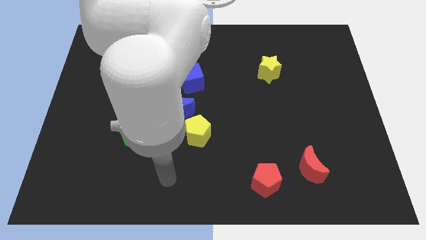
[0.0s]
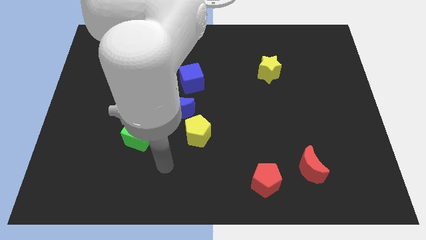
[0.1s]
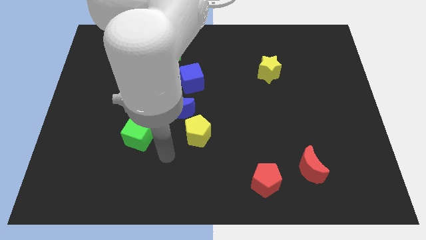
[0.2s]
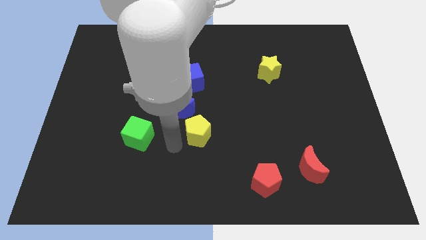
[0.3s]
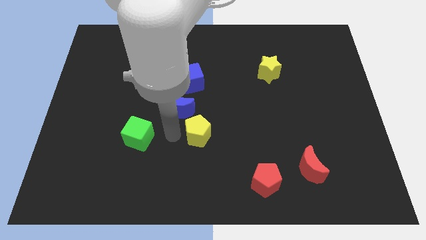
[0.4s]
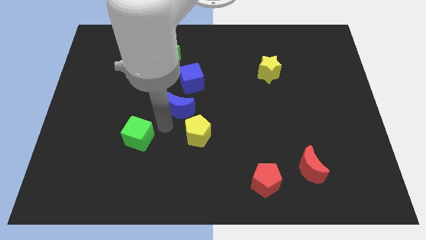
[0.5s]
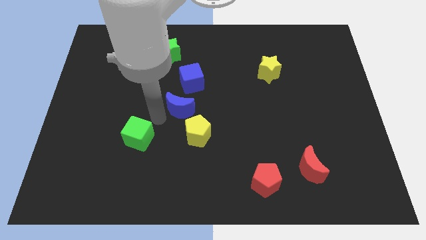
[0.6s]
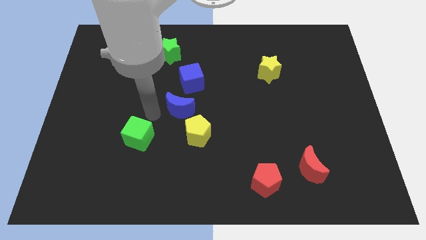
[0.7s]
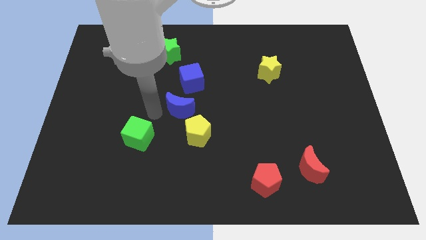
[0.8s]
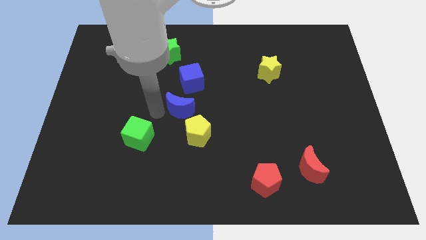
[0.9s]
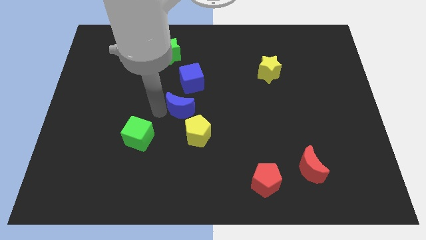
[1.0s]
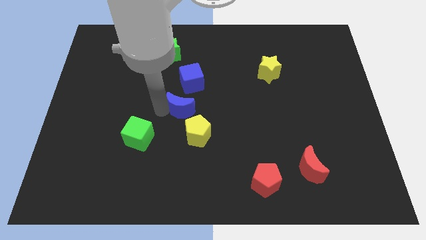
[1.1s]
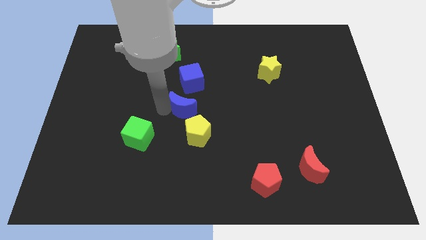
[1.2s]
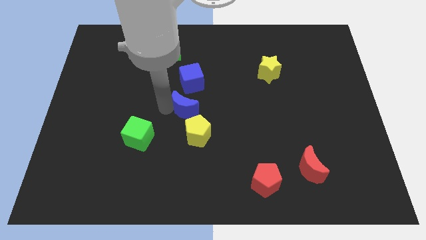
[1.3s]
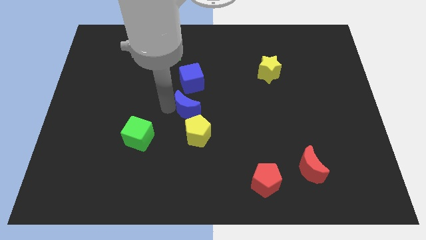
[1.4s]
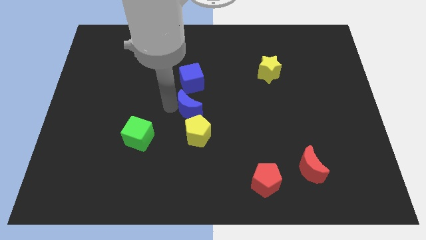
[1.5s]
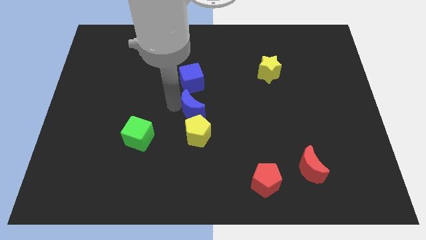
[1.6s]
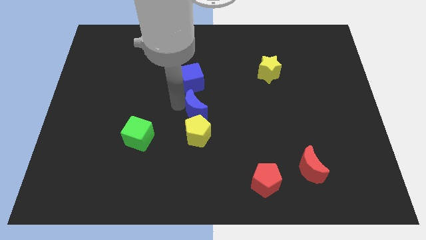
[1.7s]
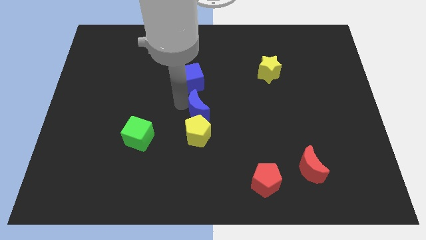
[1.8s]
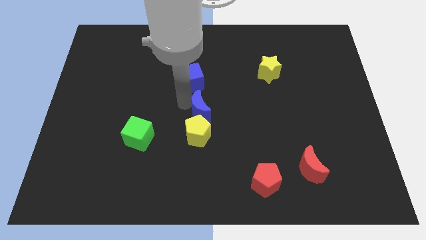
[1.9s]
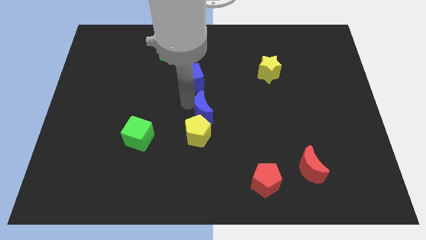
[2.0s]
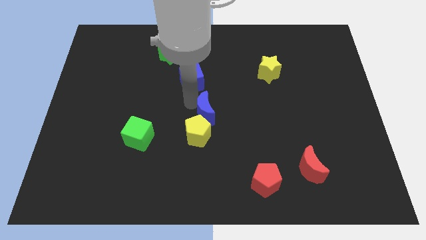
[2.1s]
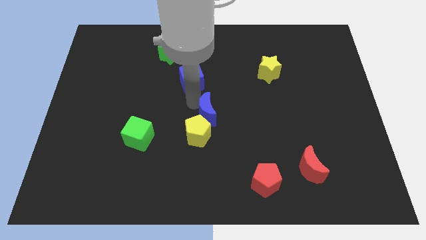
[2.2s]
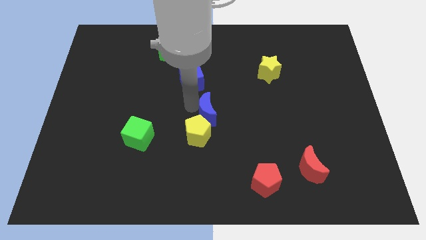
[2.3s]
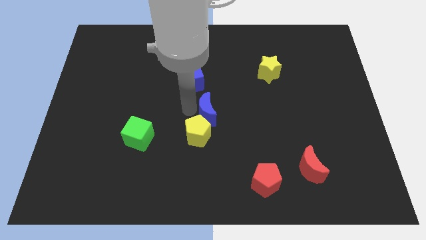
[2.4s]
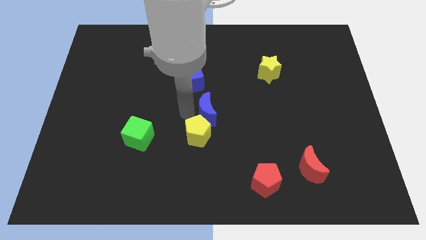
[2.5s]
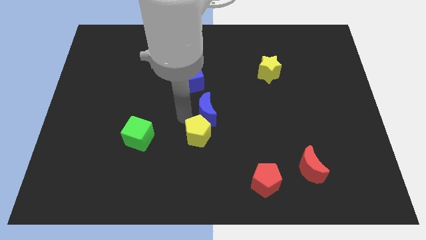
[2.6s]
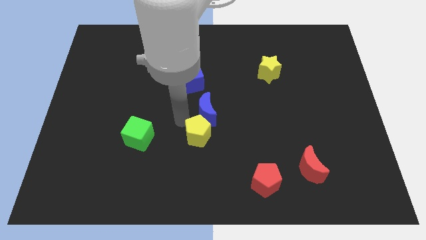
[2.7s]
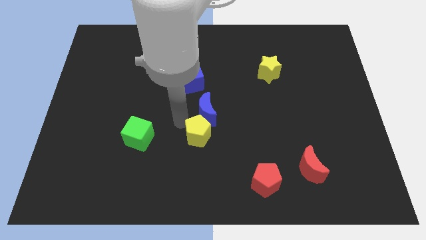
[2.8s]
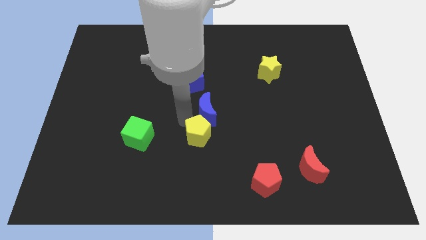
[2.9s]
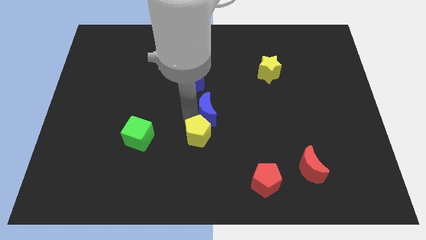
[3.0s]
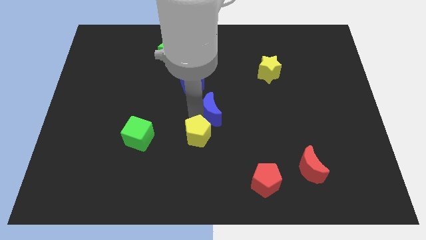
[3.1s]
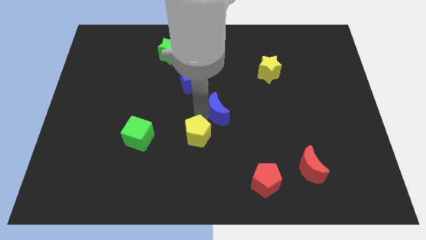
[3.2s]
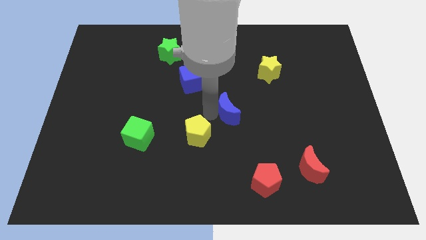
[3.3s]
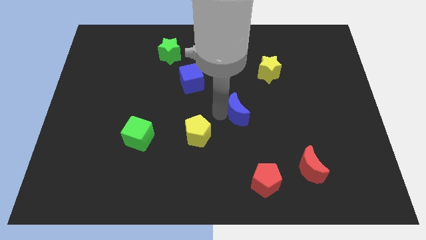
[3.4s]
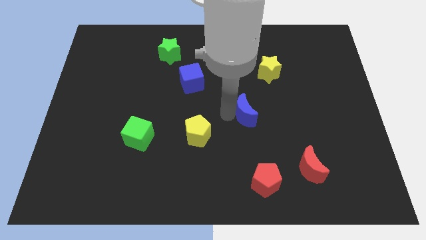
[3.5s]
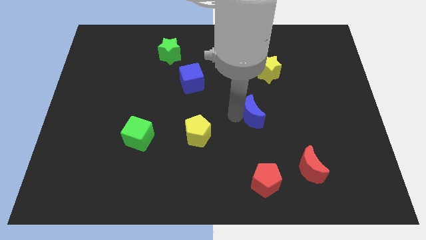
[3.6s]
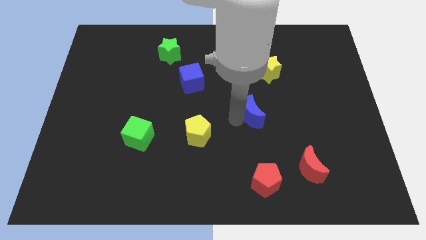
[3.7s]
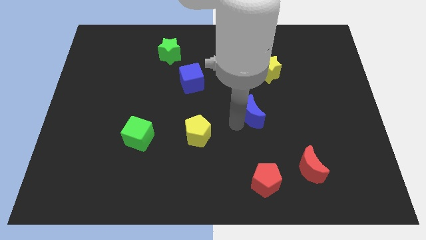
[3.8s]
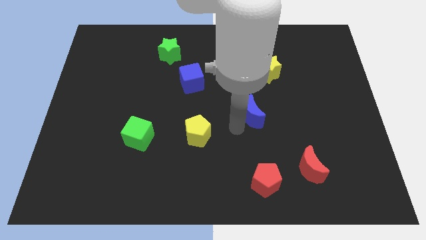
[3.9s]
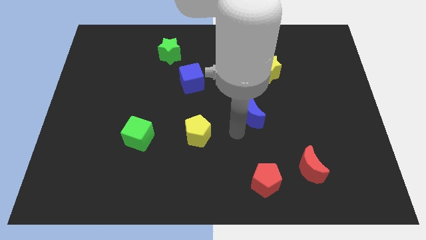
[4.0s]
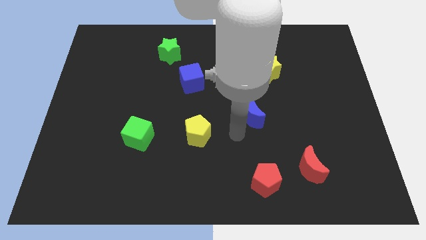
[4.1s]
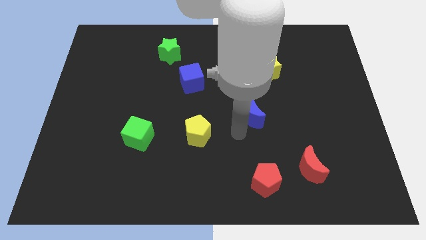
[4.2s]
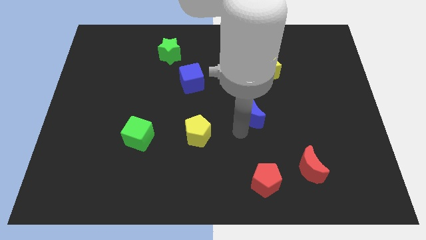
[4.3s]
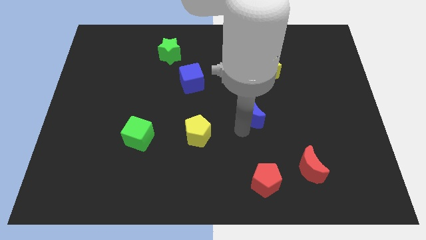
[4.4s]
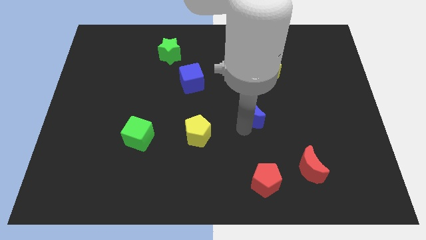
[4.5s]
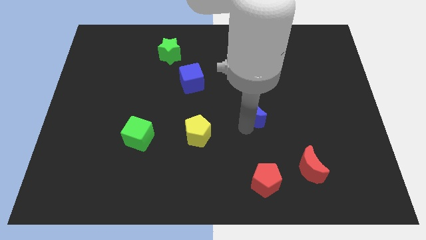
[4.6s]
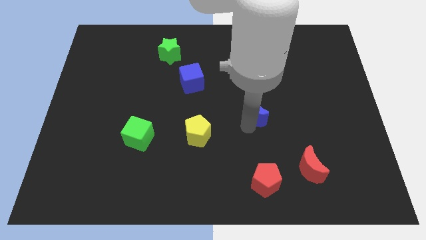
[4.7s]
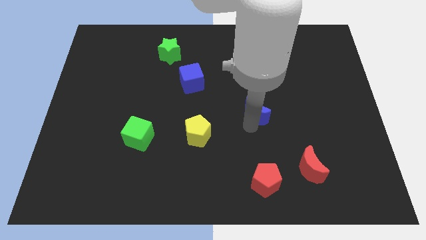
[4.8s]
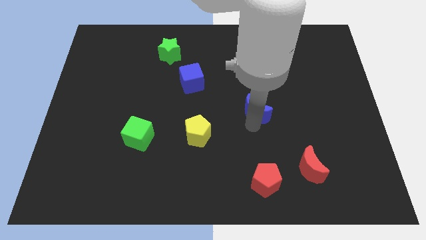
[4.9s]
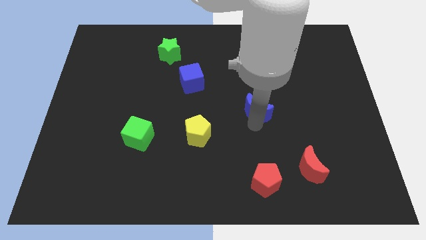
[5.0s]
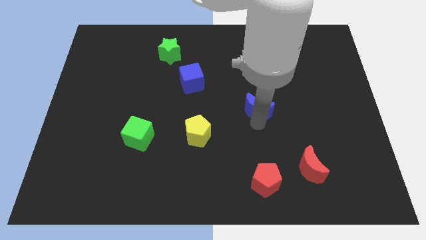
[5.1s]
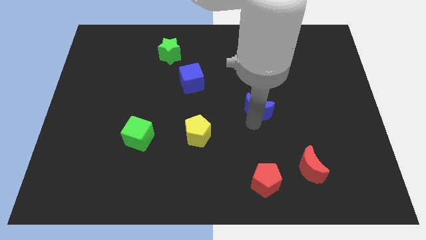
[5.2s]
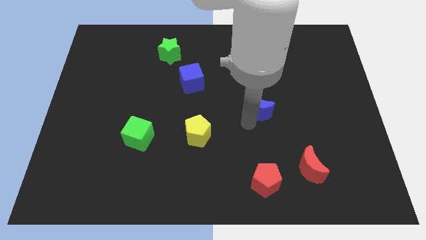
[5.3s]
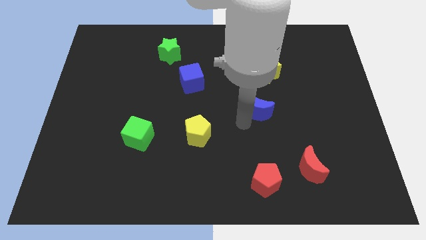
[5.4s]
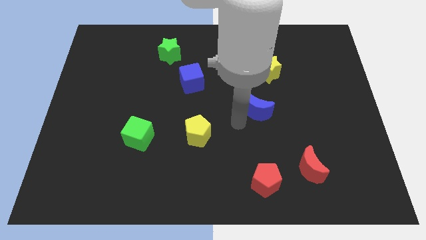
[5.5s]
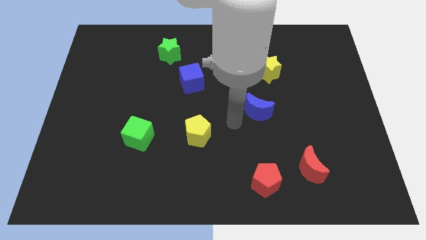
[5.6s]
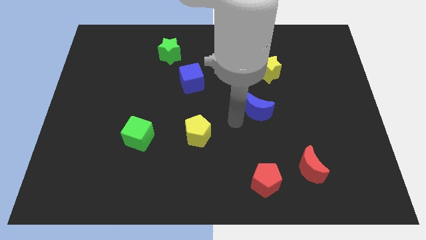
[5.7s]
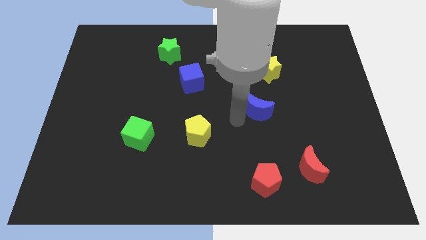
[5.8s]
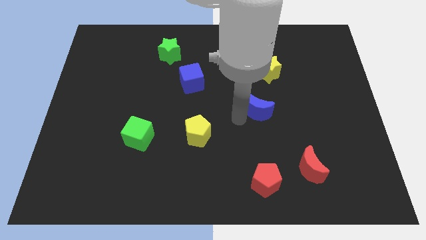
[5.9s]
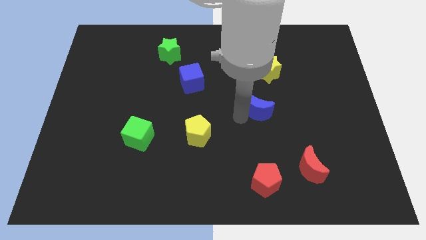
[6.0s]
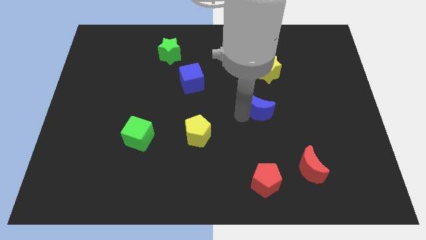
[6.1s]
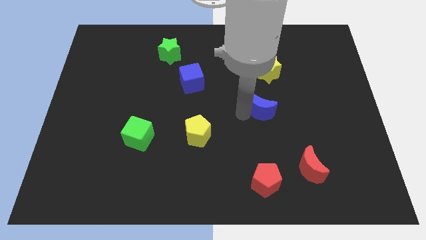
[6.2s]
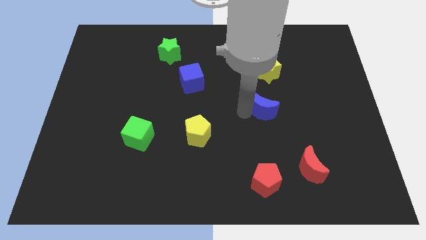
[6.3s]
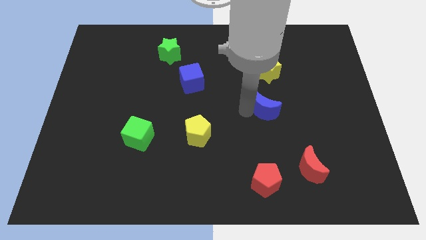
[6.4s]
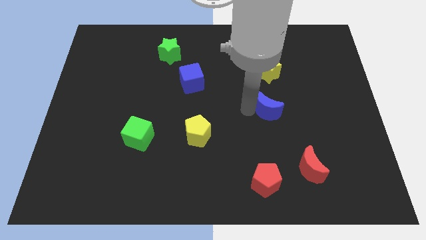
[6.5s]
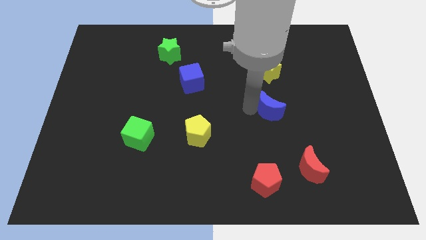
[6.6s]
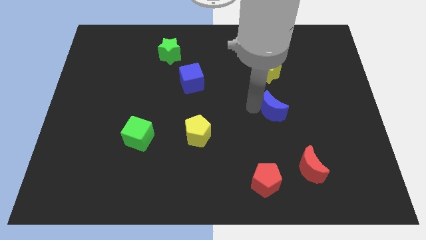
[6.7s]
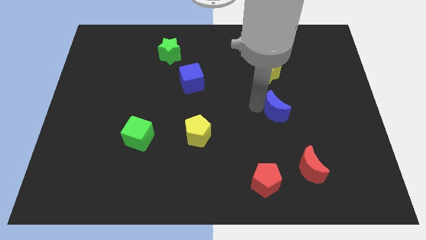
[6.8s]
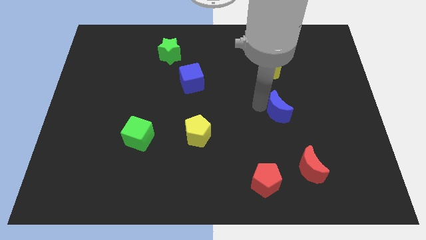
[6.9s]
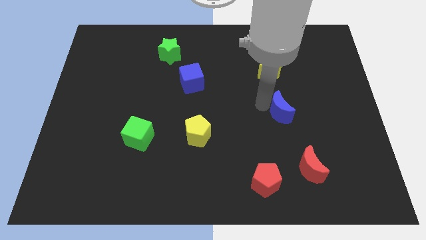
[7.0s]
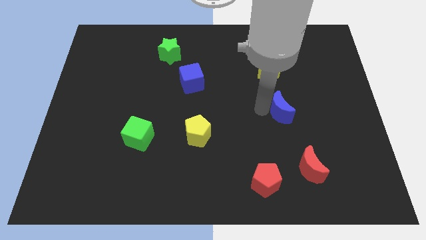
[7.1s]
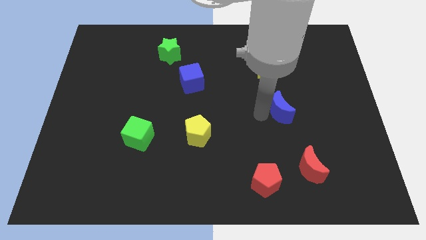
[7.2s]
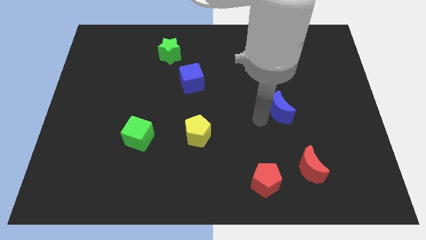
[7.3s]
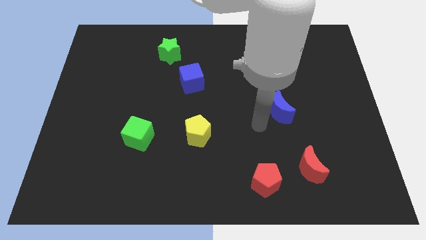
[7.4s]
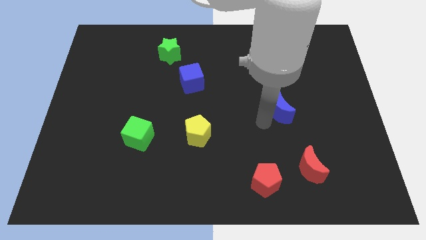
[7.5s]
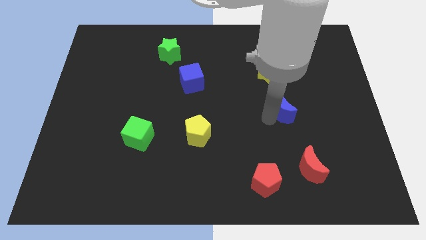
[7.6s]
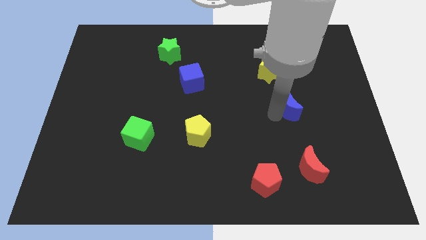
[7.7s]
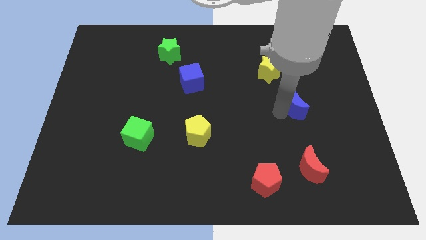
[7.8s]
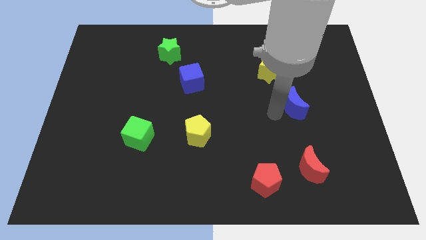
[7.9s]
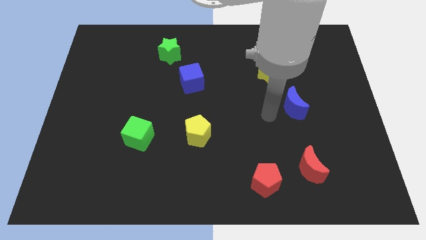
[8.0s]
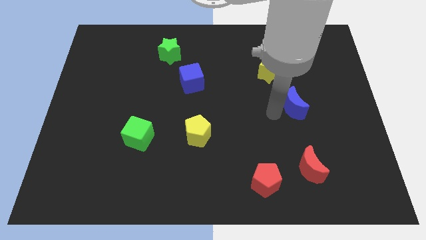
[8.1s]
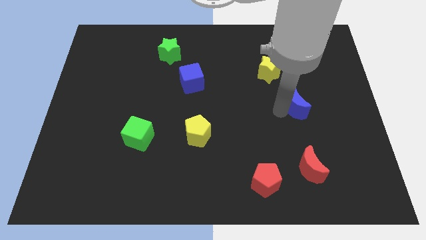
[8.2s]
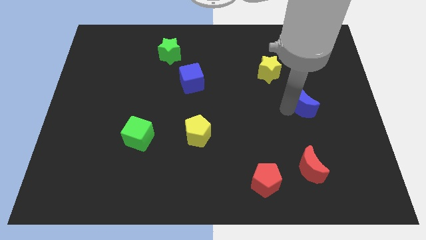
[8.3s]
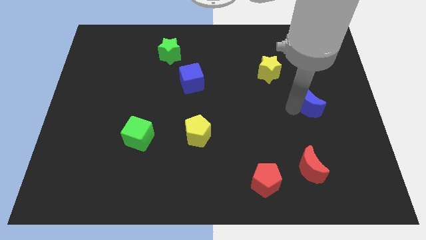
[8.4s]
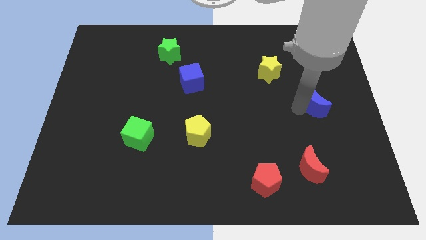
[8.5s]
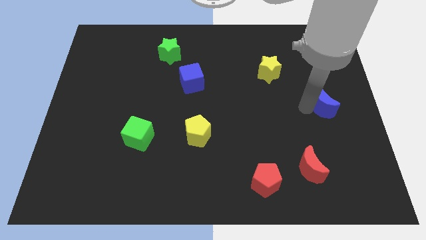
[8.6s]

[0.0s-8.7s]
push the blue moon to the right side of the board
